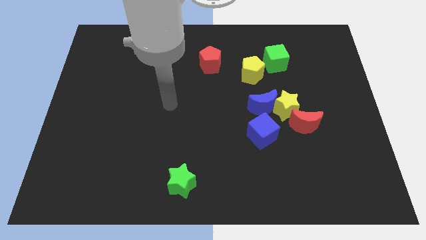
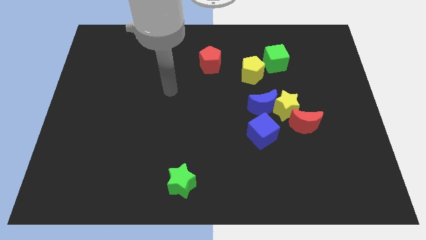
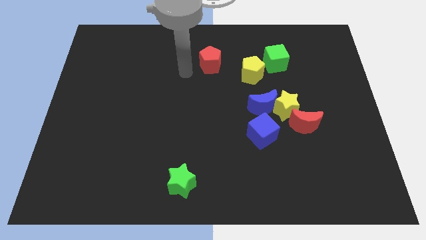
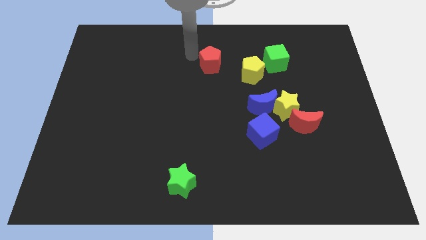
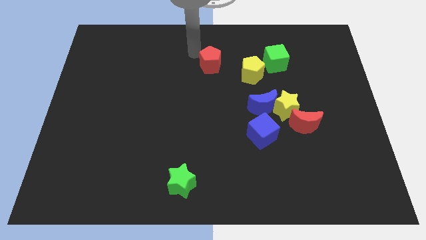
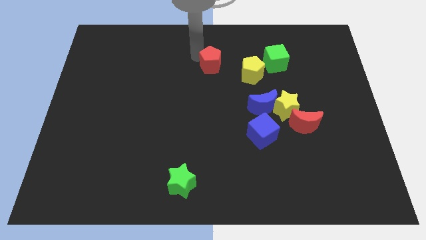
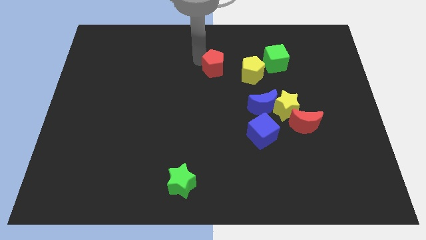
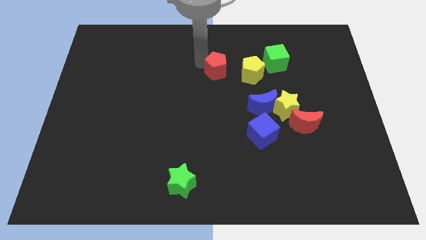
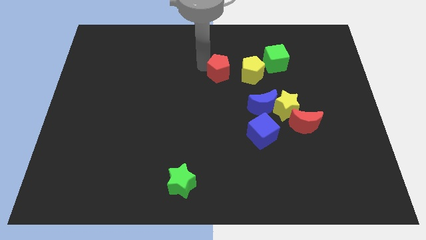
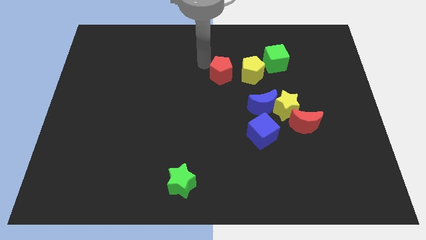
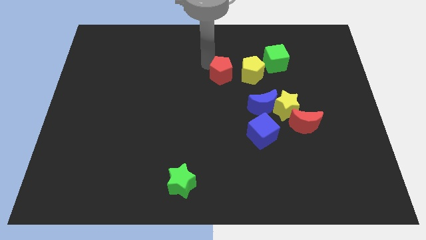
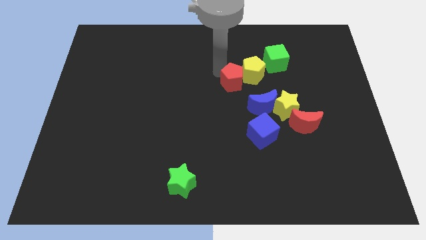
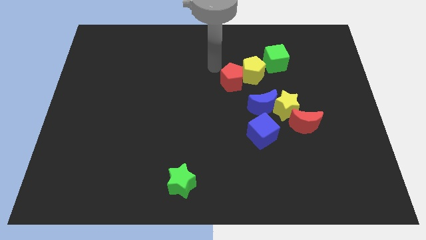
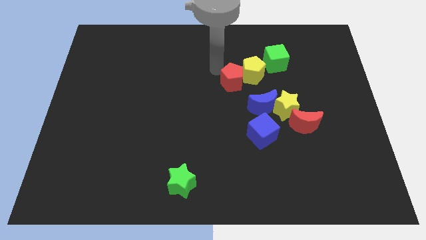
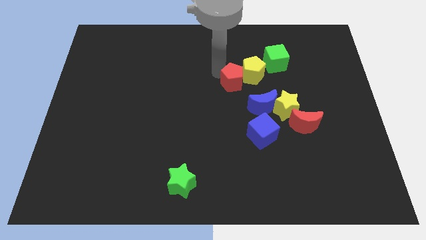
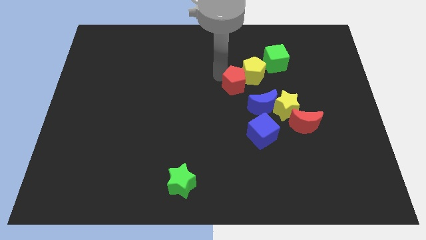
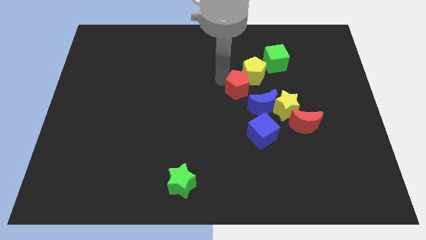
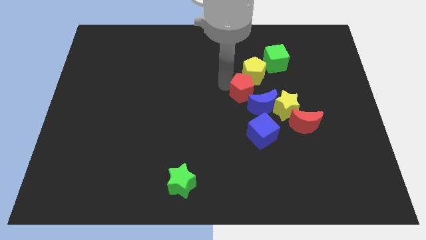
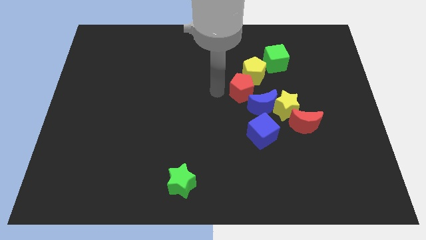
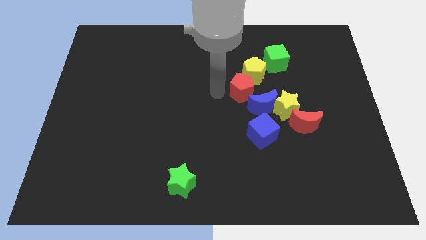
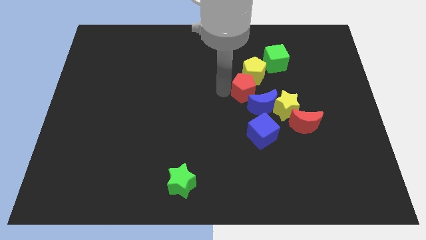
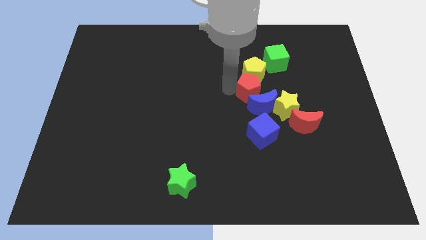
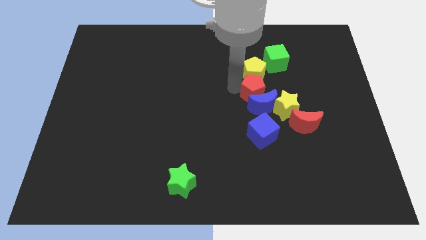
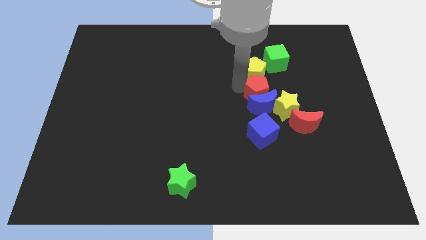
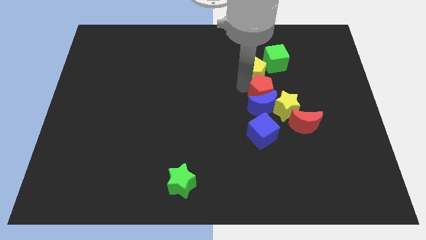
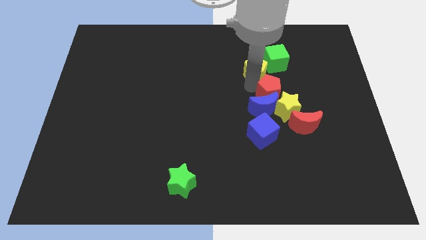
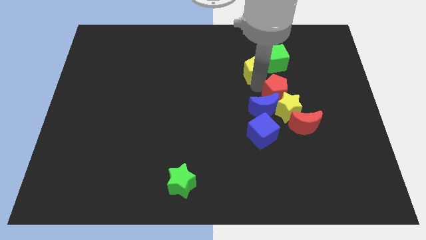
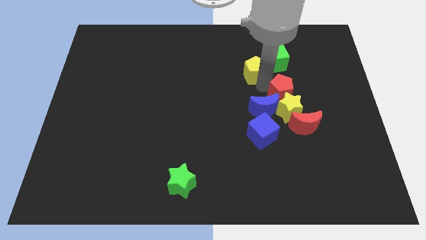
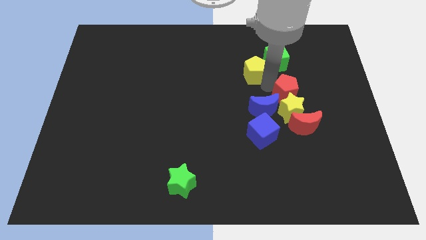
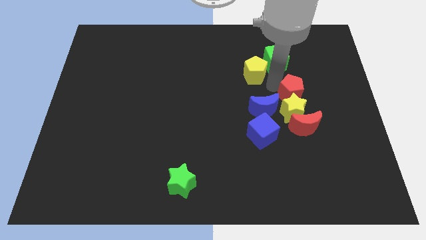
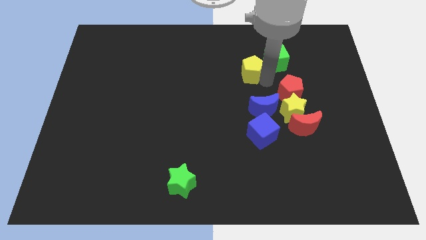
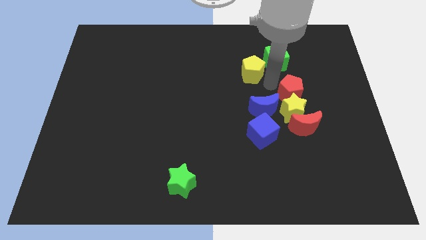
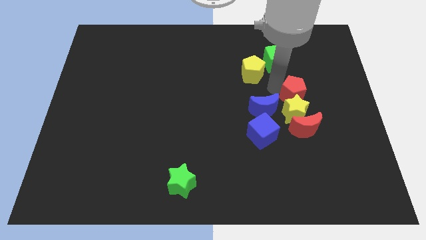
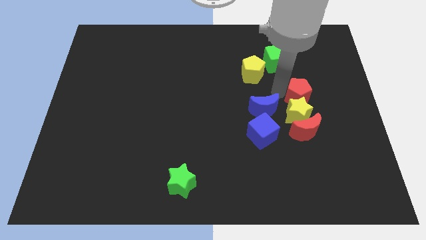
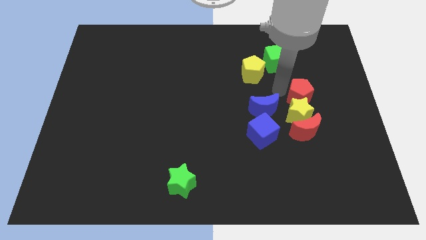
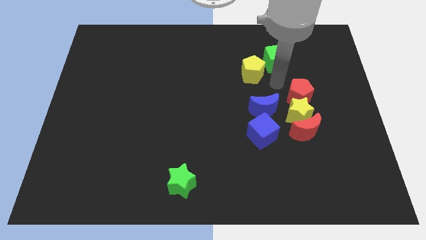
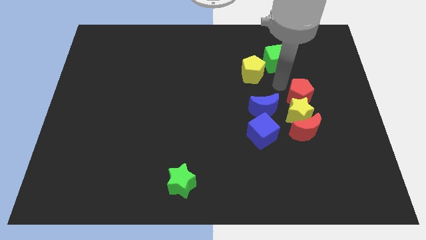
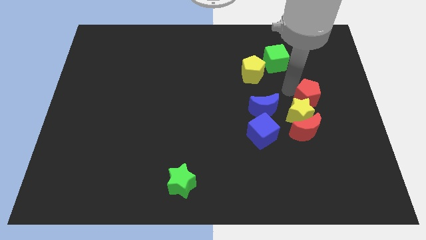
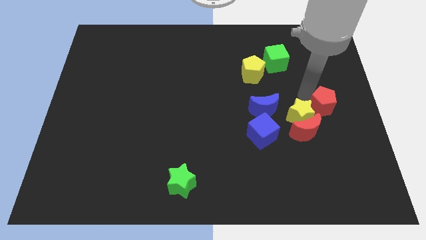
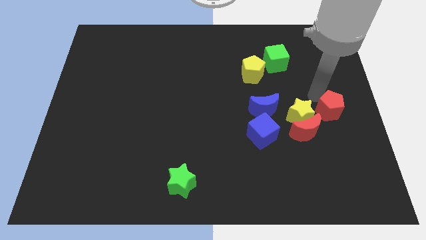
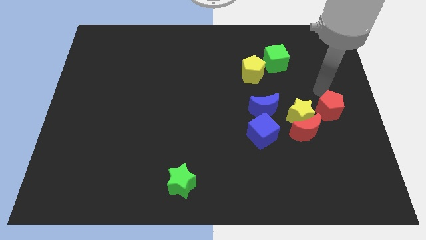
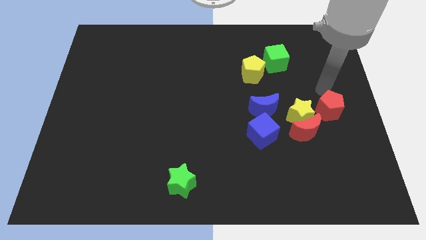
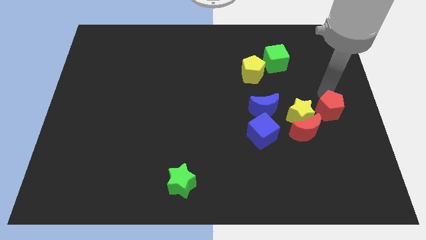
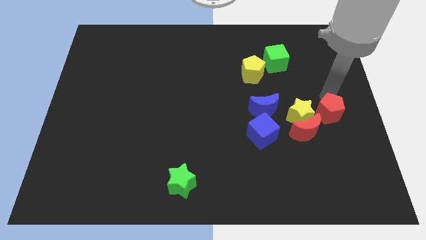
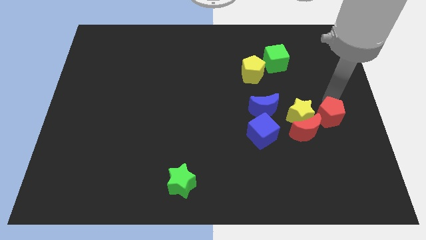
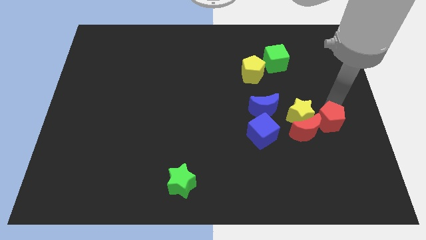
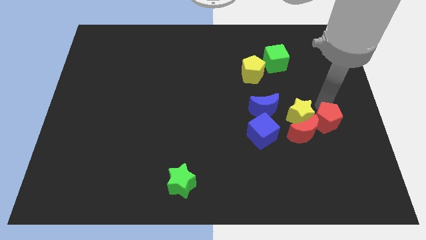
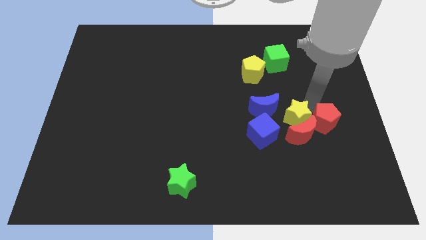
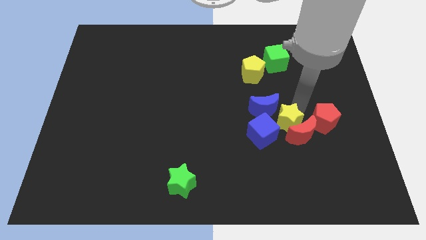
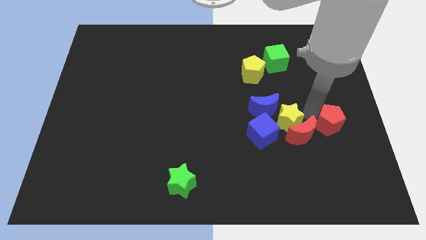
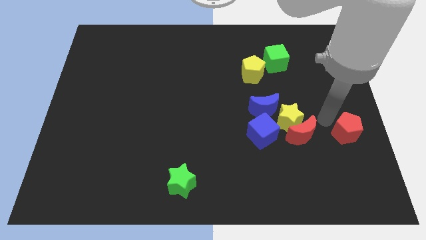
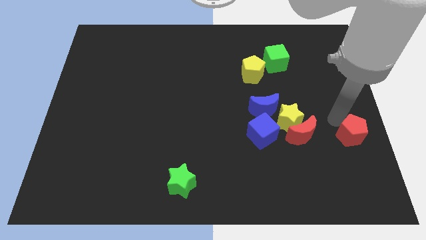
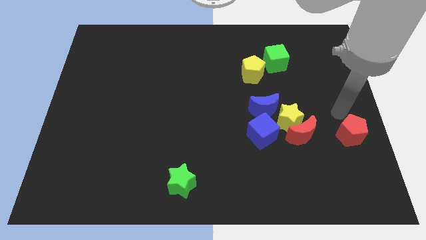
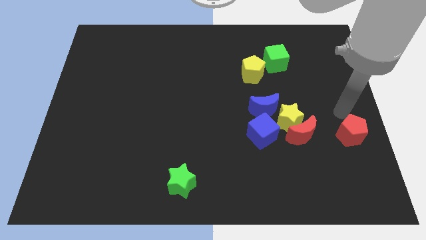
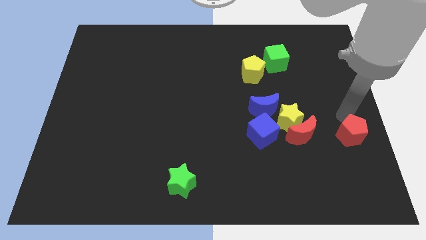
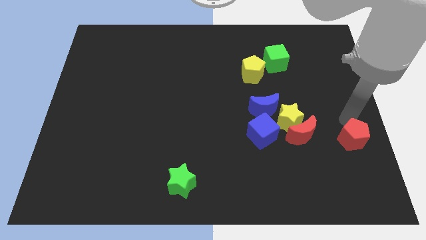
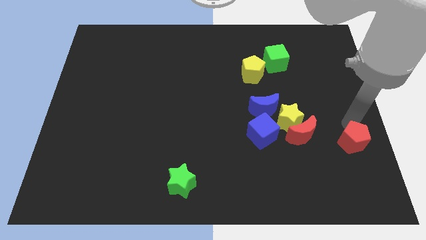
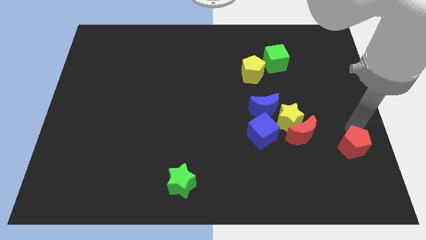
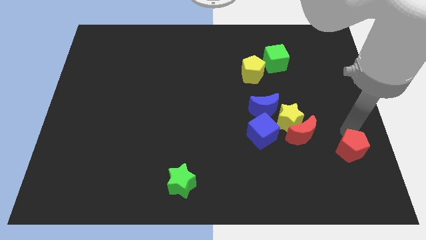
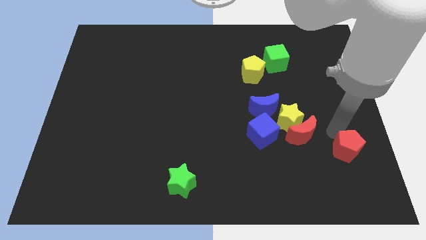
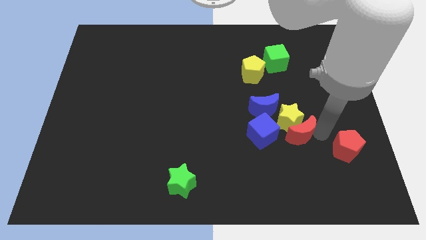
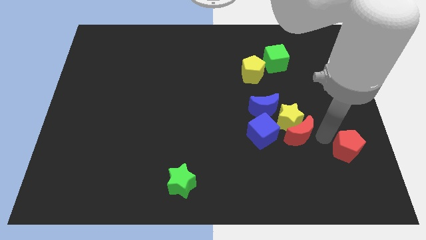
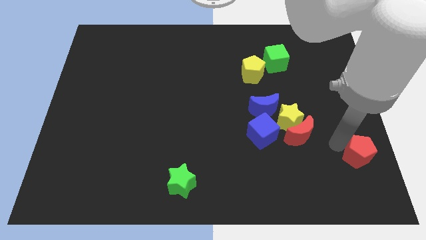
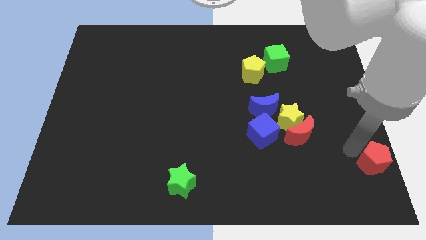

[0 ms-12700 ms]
push the red pentagon to the lower right corner

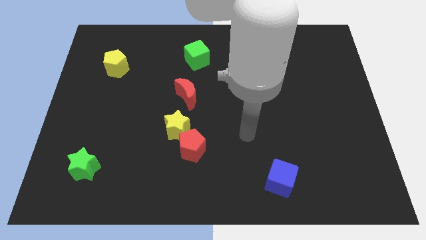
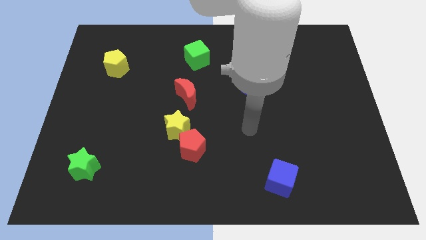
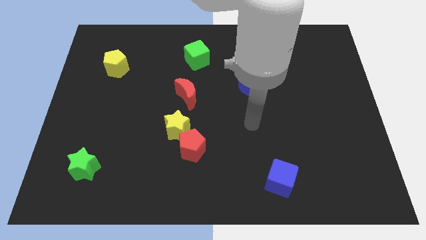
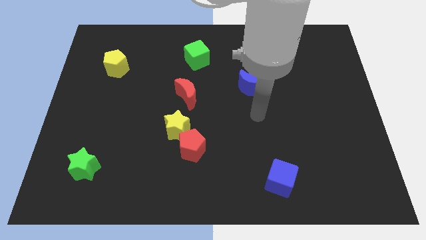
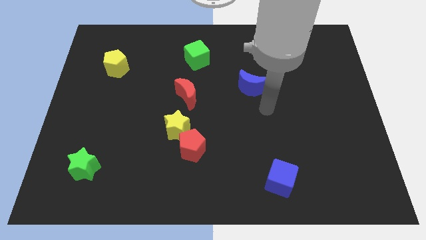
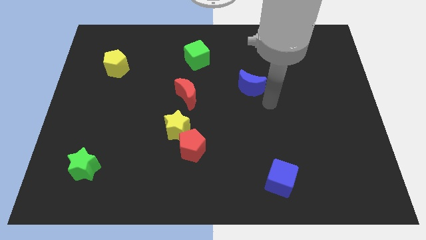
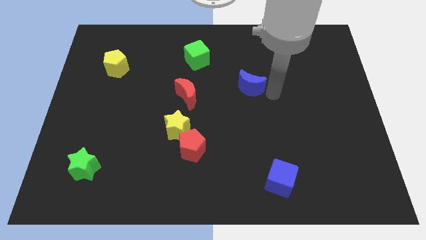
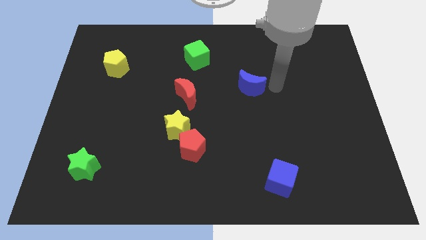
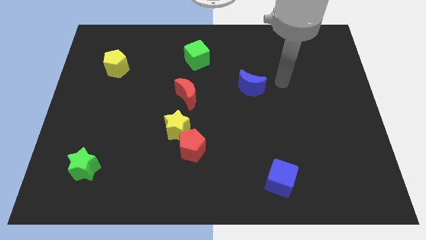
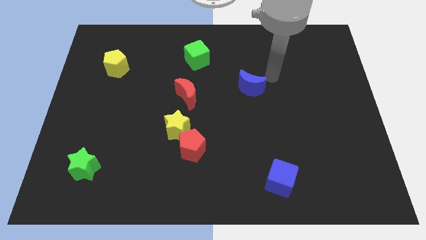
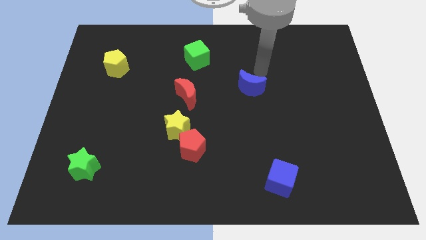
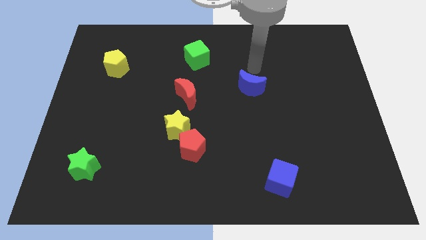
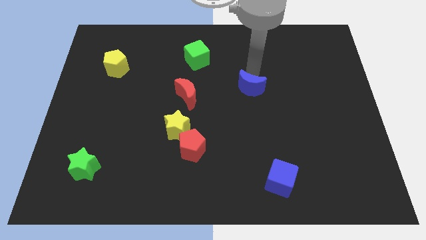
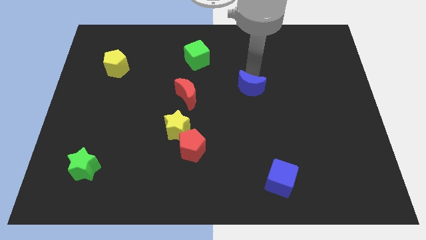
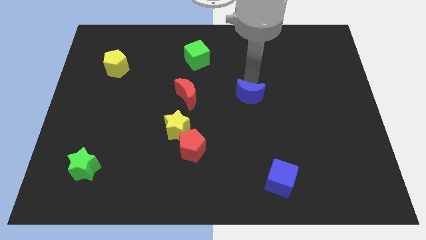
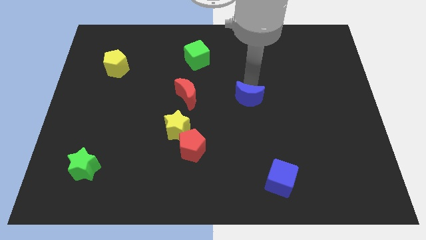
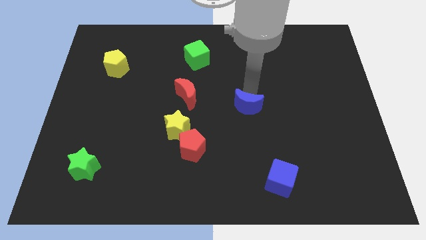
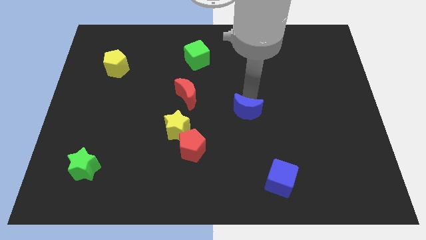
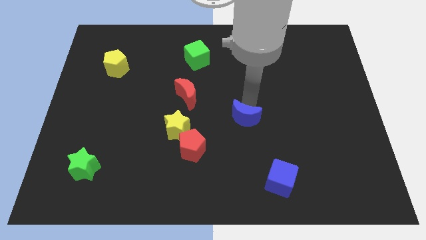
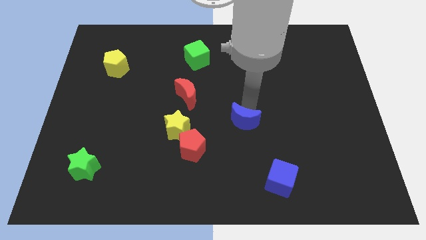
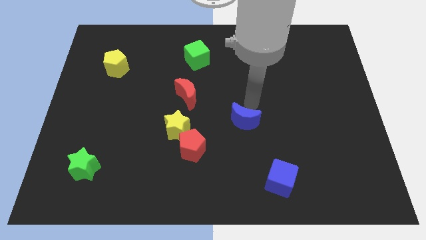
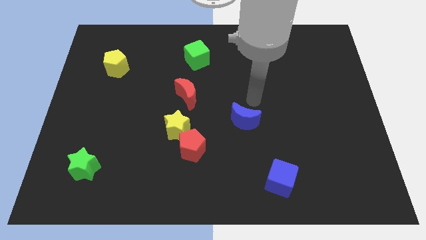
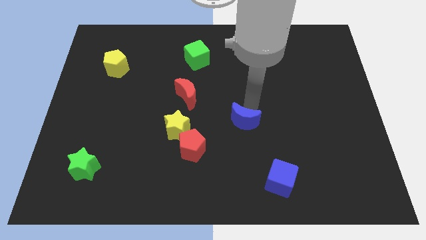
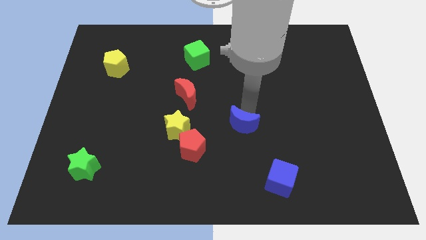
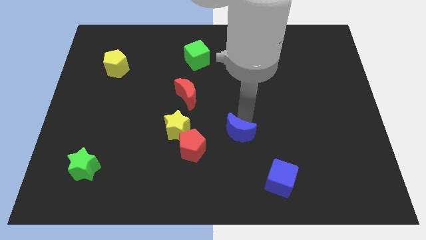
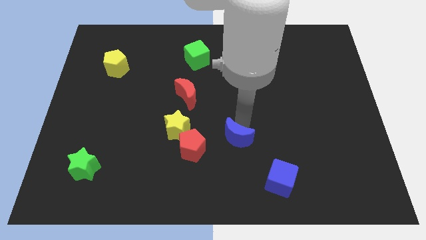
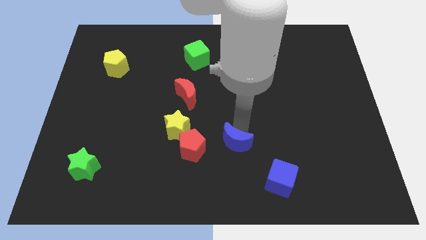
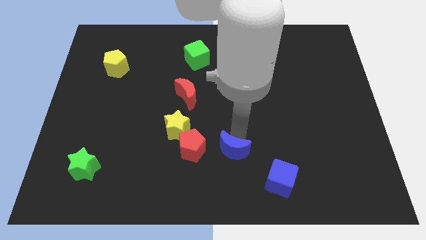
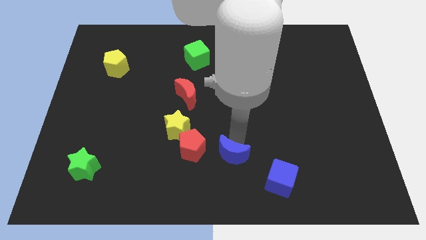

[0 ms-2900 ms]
move the blue moon to the bottom side
